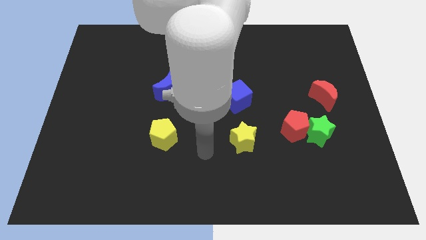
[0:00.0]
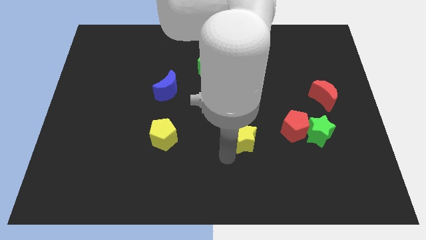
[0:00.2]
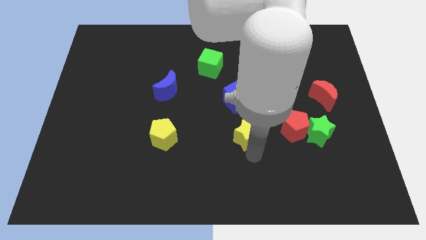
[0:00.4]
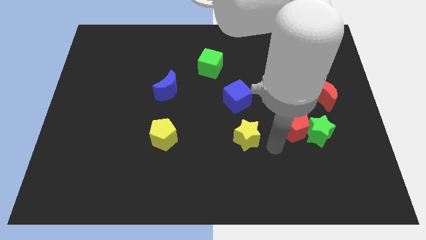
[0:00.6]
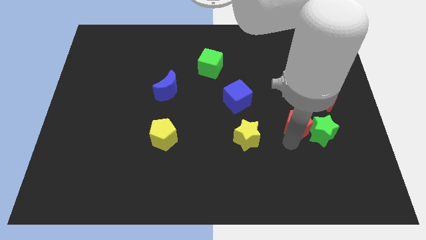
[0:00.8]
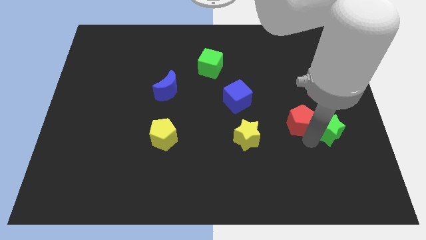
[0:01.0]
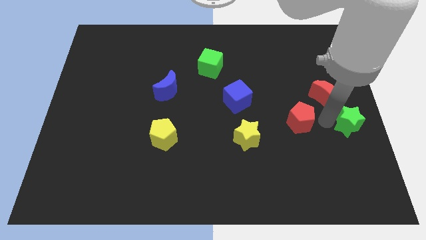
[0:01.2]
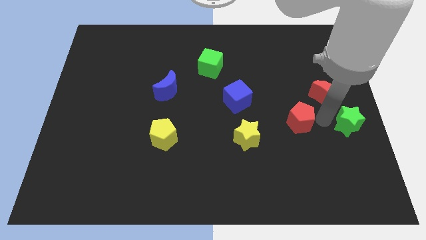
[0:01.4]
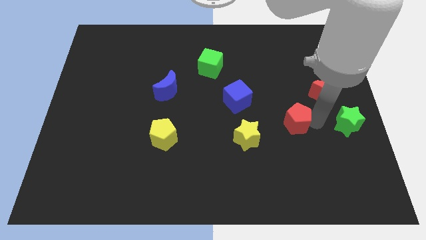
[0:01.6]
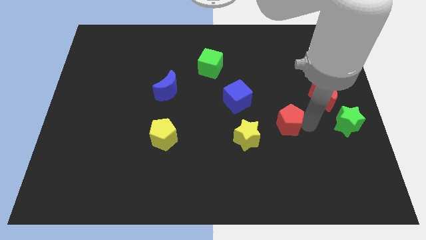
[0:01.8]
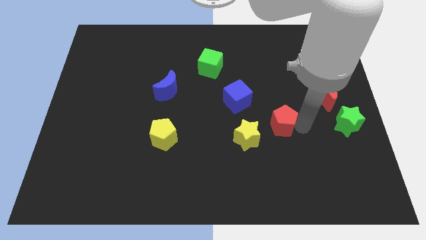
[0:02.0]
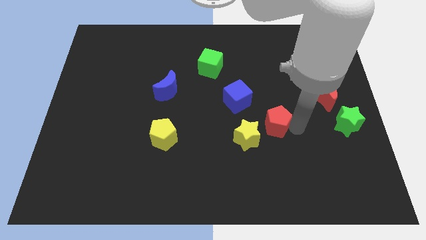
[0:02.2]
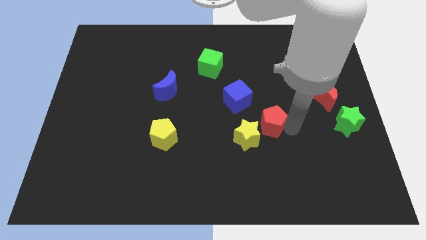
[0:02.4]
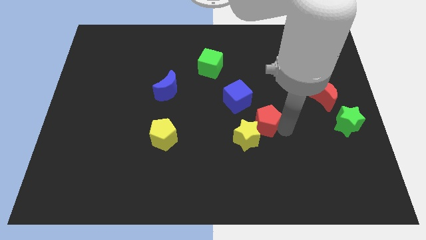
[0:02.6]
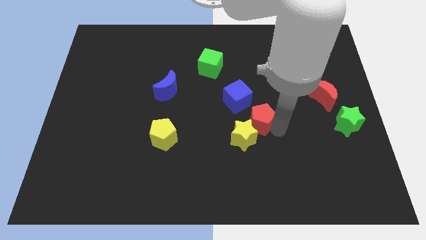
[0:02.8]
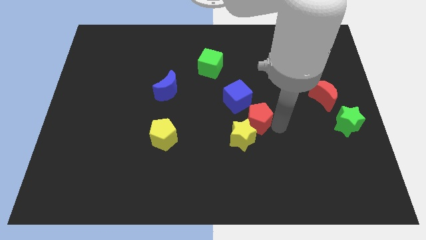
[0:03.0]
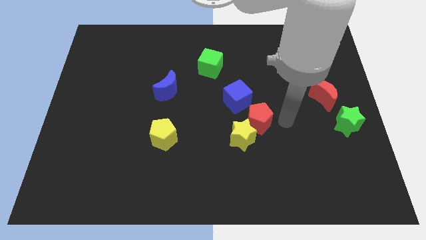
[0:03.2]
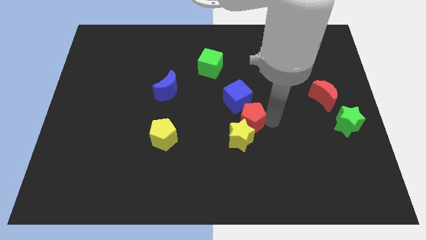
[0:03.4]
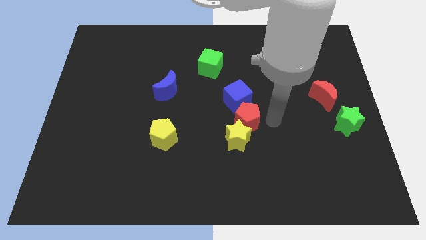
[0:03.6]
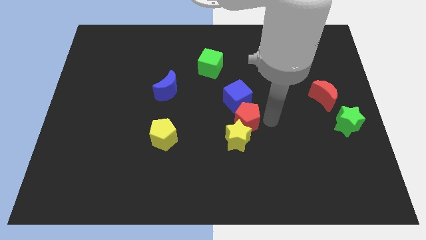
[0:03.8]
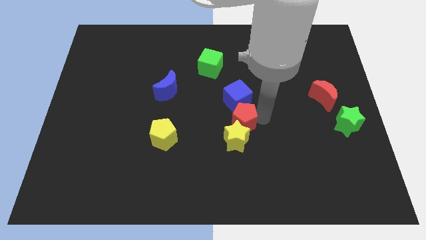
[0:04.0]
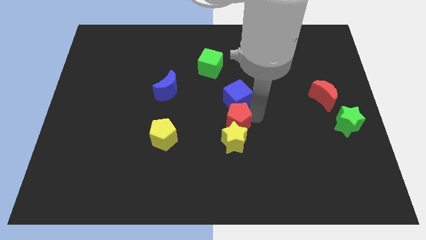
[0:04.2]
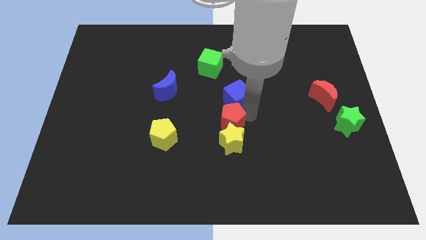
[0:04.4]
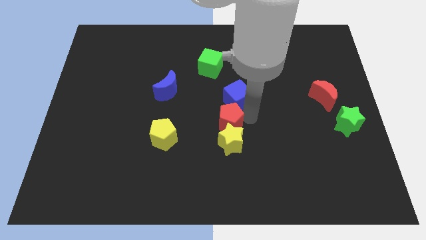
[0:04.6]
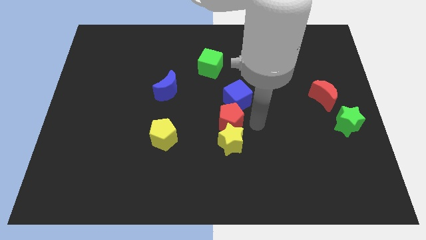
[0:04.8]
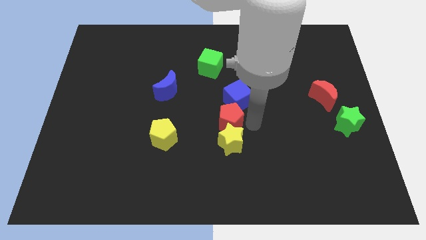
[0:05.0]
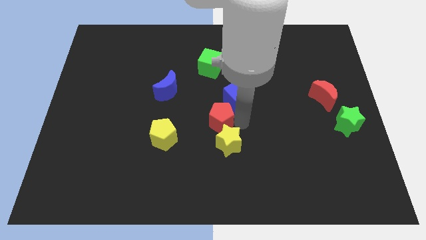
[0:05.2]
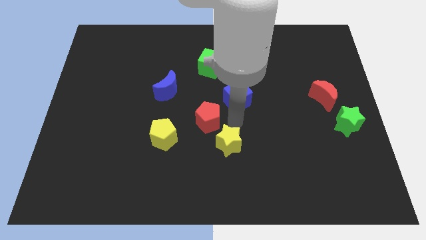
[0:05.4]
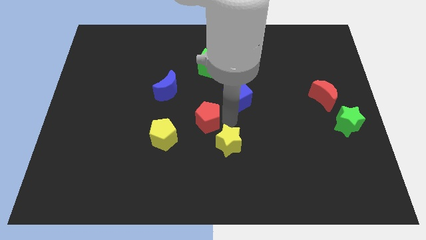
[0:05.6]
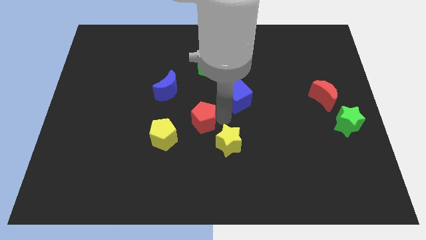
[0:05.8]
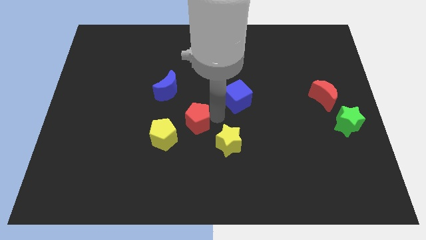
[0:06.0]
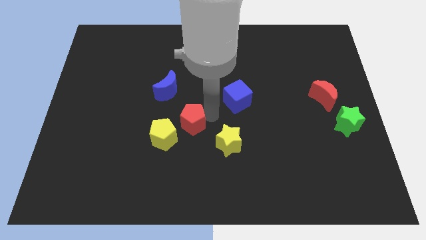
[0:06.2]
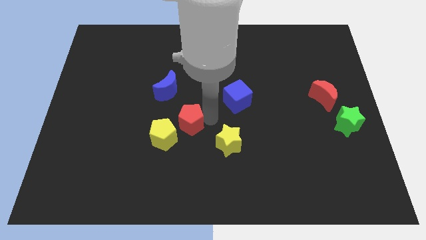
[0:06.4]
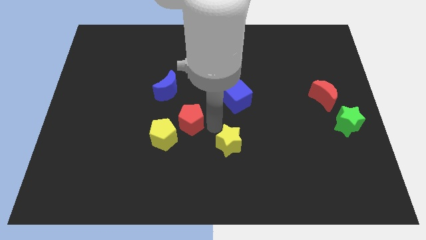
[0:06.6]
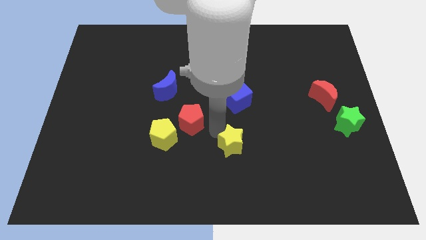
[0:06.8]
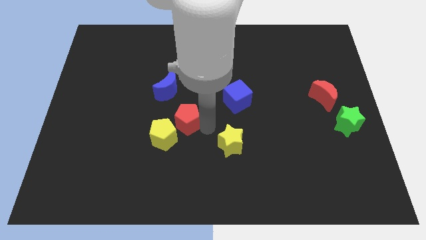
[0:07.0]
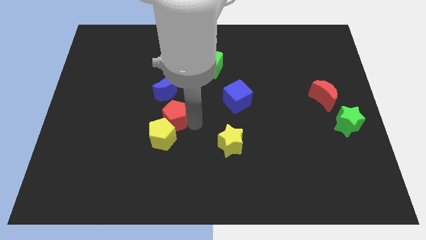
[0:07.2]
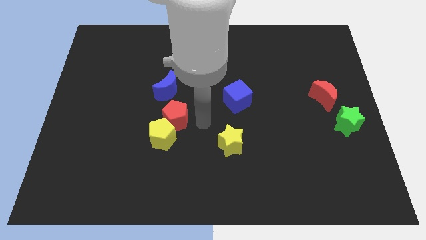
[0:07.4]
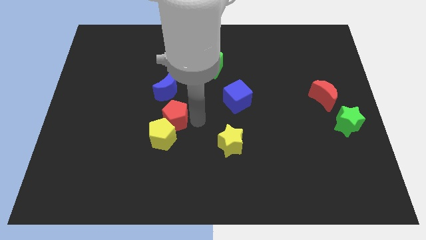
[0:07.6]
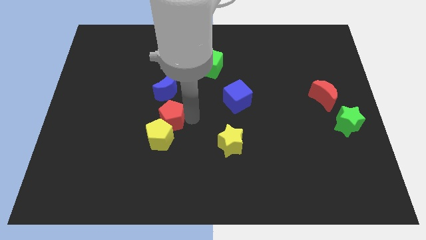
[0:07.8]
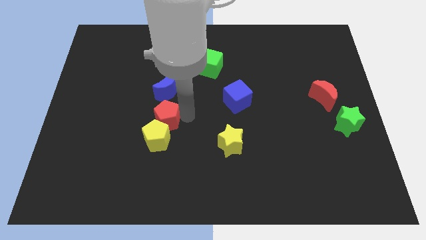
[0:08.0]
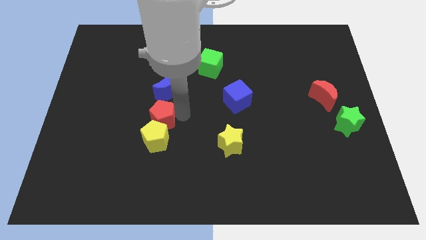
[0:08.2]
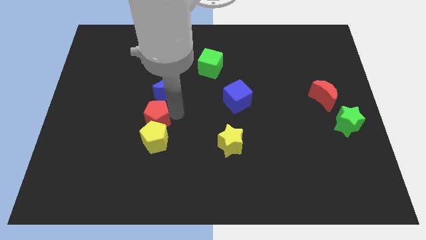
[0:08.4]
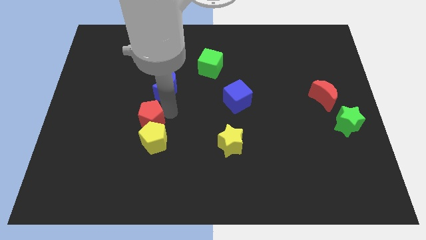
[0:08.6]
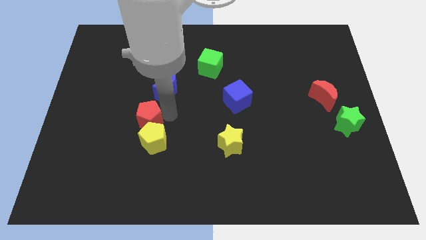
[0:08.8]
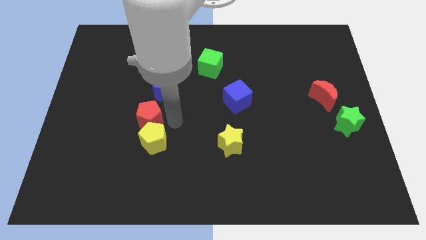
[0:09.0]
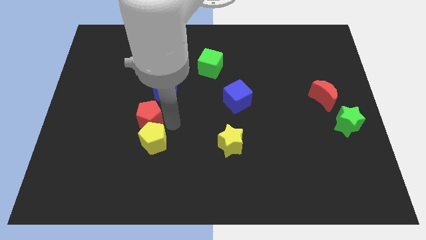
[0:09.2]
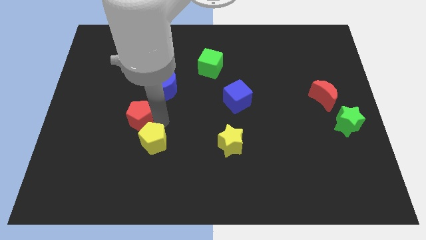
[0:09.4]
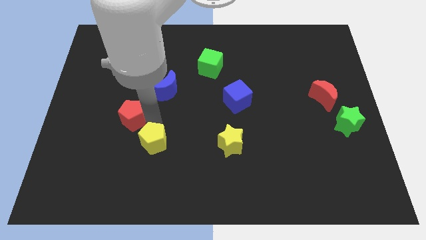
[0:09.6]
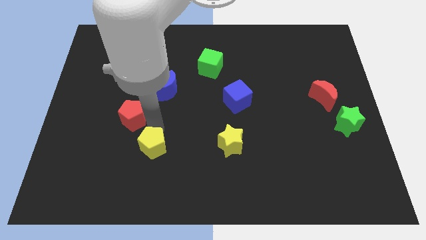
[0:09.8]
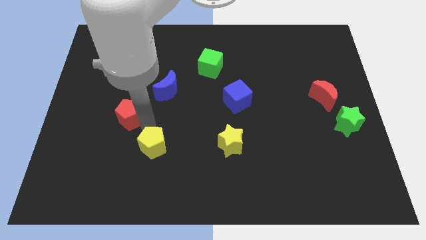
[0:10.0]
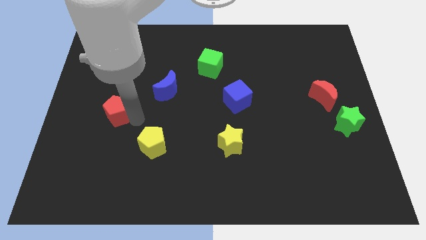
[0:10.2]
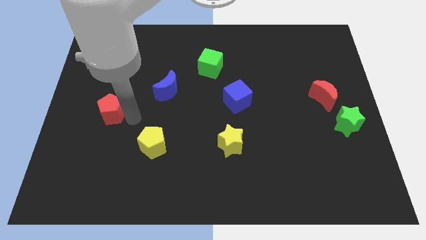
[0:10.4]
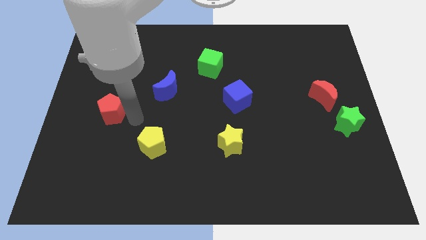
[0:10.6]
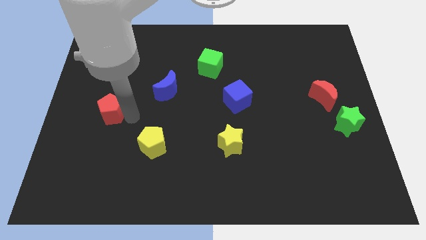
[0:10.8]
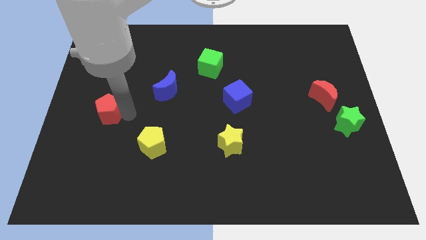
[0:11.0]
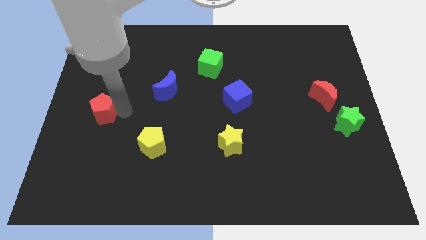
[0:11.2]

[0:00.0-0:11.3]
move the red pentagon to the left side of the board

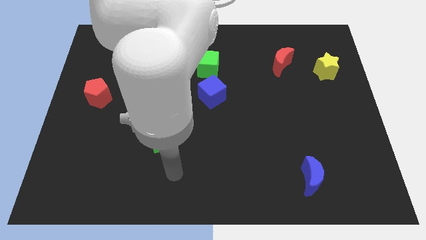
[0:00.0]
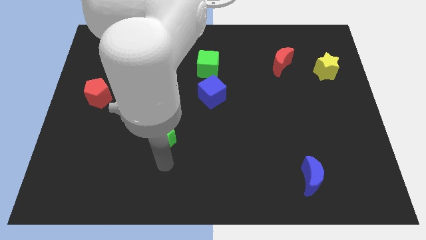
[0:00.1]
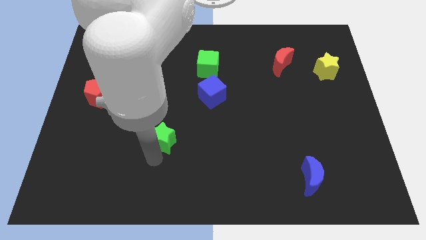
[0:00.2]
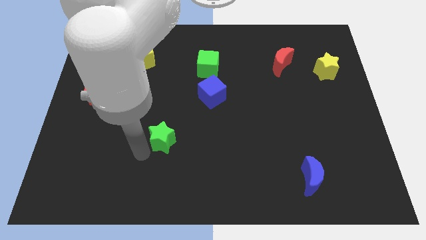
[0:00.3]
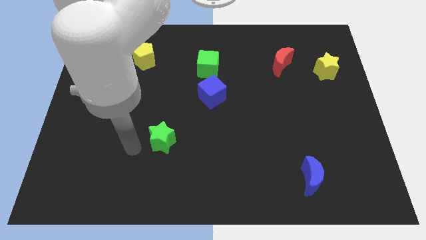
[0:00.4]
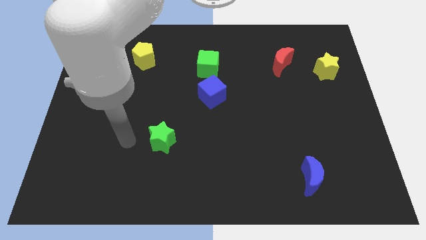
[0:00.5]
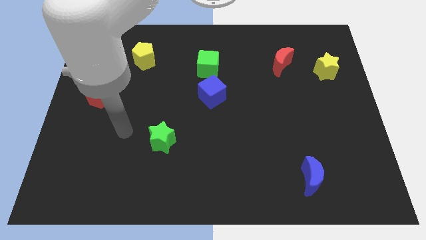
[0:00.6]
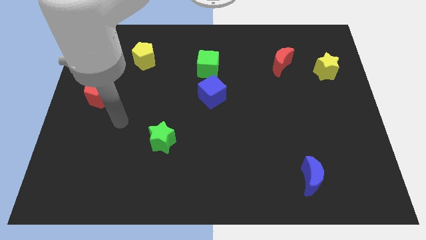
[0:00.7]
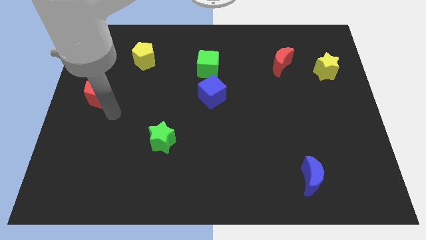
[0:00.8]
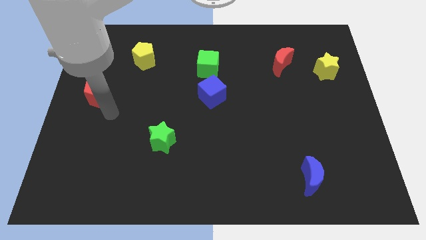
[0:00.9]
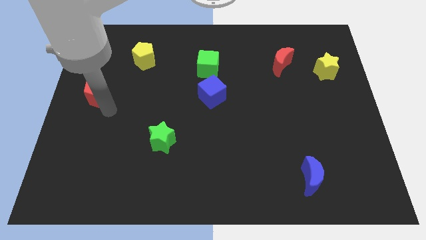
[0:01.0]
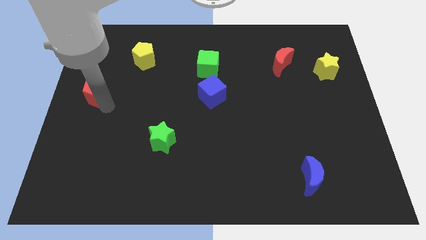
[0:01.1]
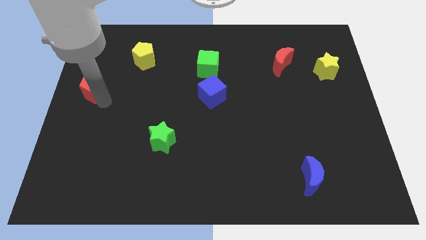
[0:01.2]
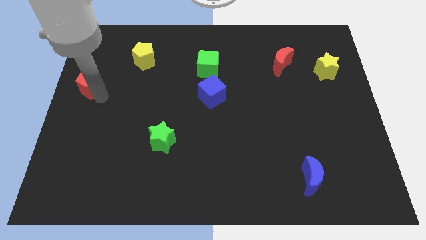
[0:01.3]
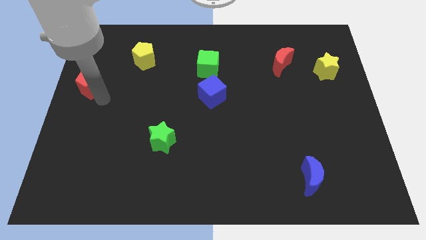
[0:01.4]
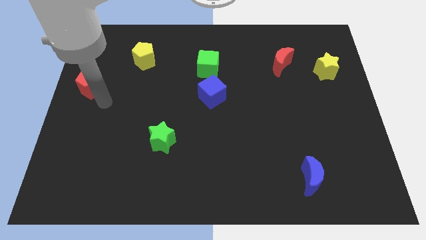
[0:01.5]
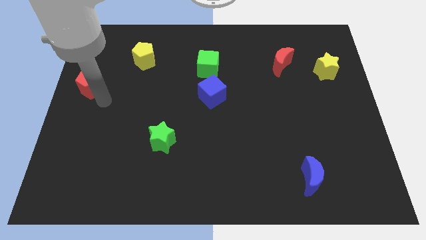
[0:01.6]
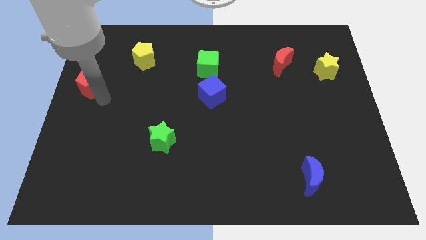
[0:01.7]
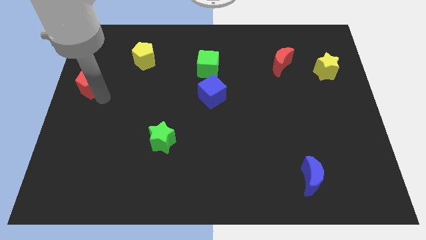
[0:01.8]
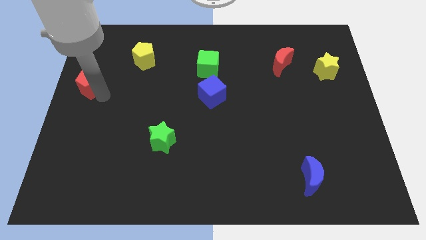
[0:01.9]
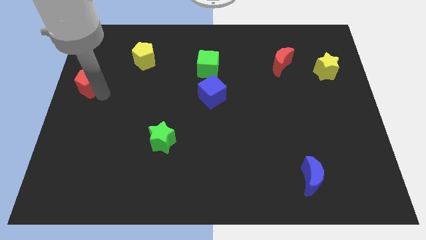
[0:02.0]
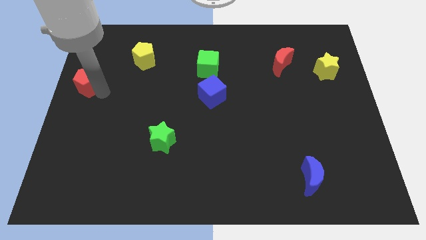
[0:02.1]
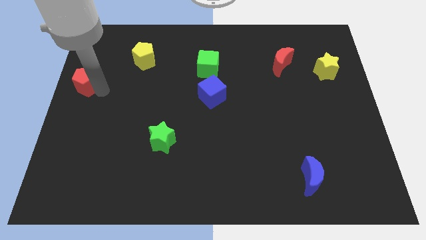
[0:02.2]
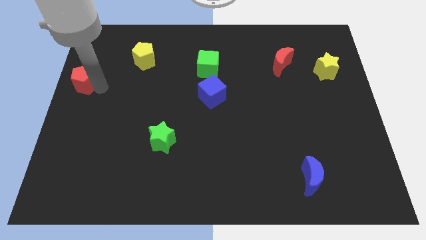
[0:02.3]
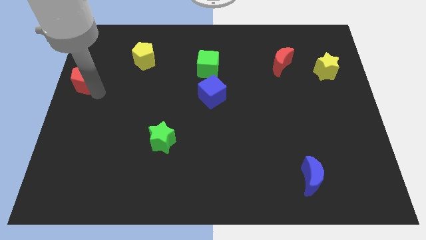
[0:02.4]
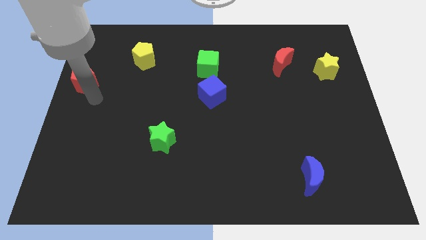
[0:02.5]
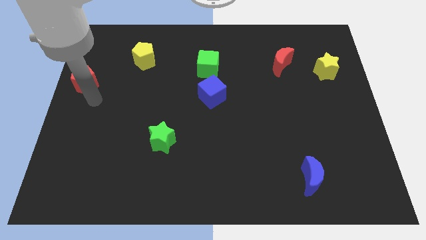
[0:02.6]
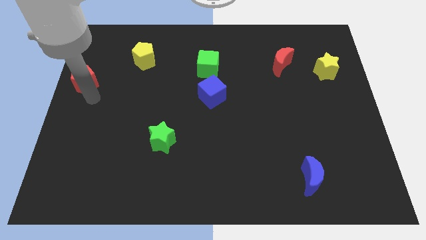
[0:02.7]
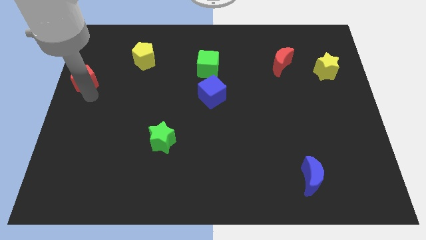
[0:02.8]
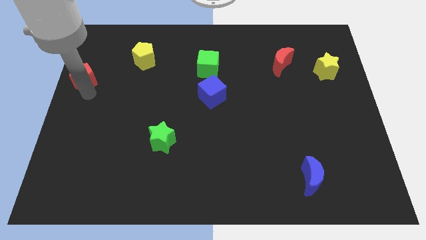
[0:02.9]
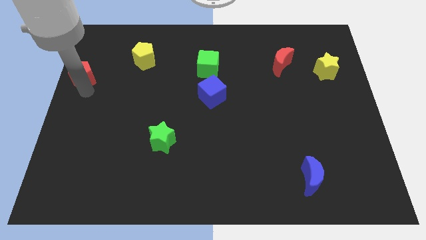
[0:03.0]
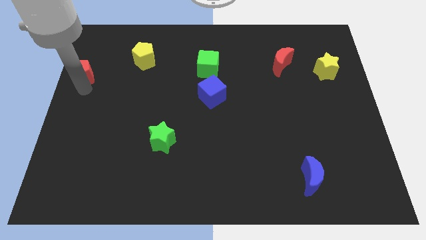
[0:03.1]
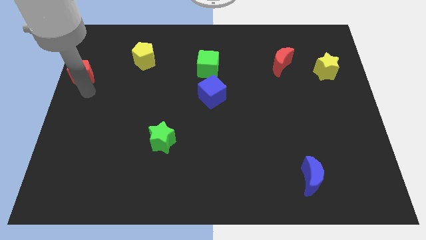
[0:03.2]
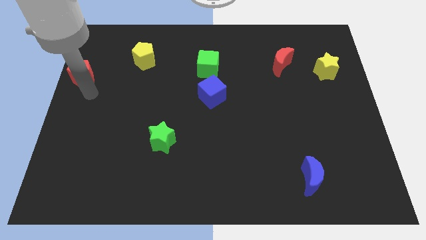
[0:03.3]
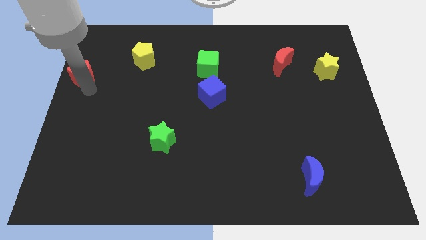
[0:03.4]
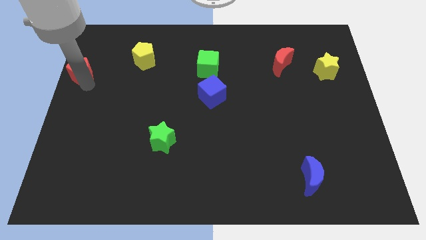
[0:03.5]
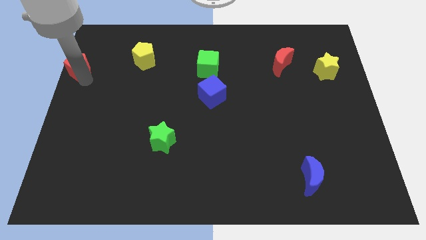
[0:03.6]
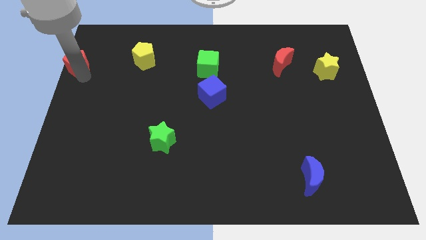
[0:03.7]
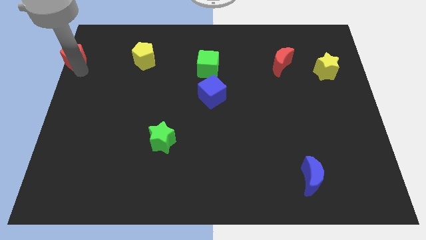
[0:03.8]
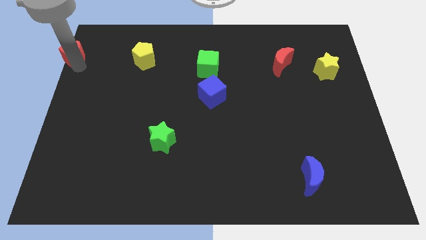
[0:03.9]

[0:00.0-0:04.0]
slide the red pentagon to the top left
